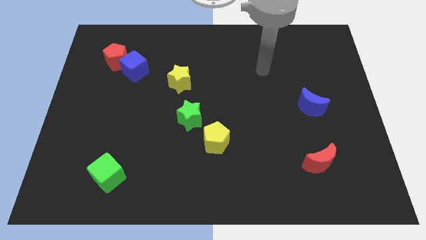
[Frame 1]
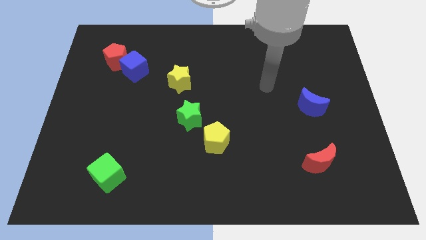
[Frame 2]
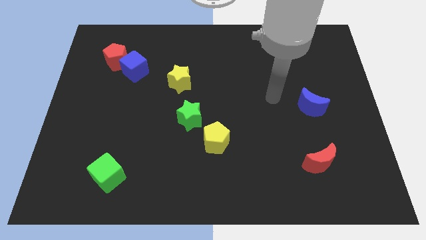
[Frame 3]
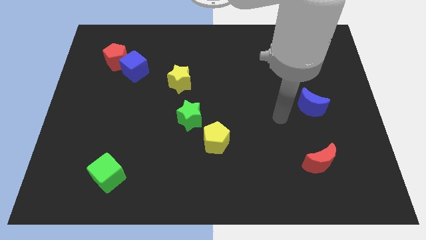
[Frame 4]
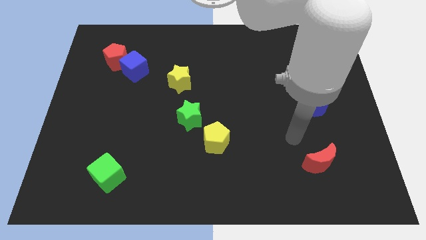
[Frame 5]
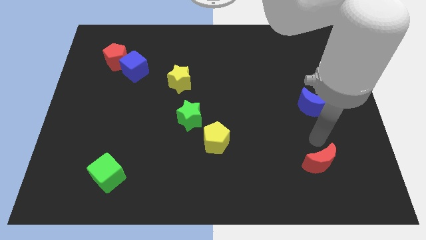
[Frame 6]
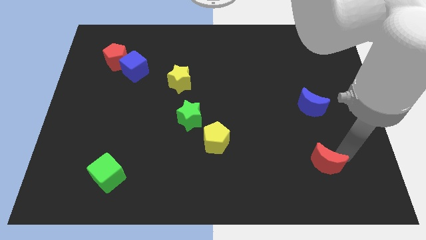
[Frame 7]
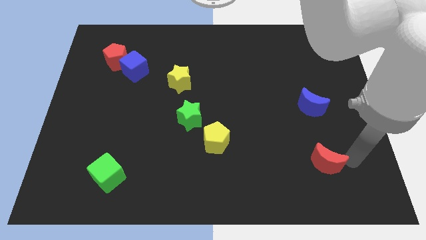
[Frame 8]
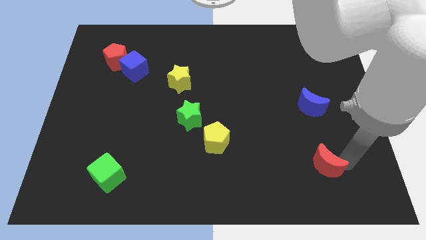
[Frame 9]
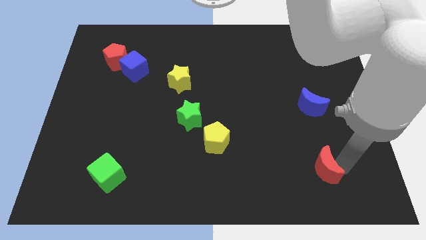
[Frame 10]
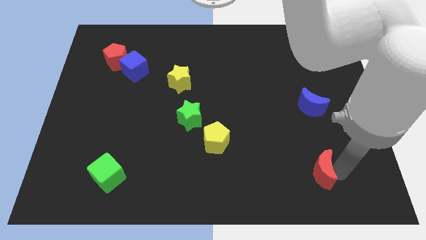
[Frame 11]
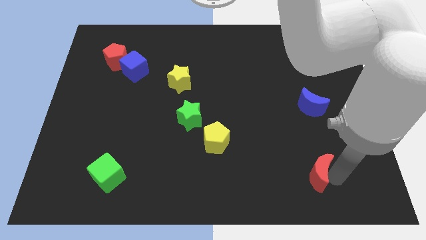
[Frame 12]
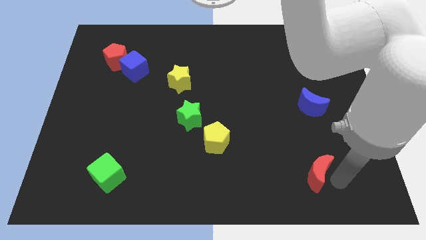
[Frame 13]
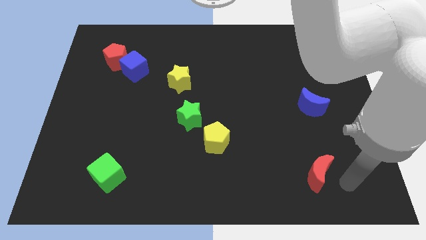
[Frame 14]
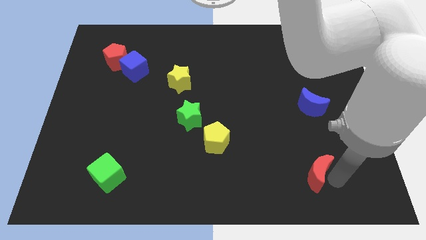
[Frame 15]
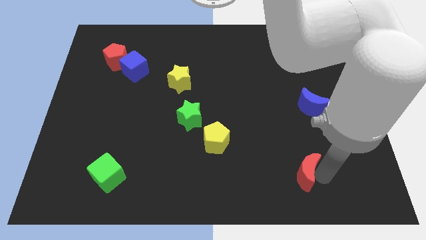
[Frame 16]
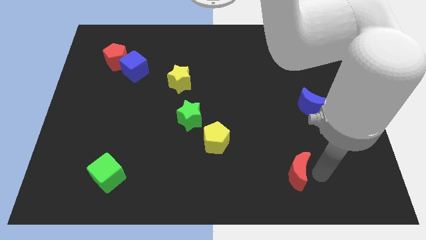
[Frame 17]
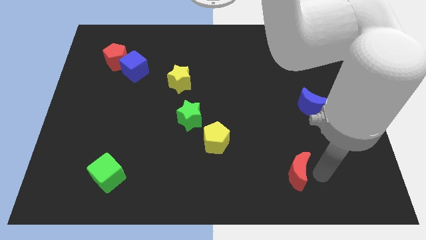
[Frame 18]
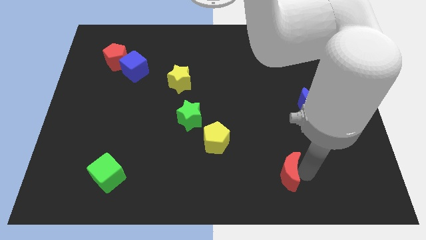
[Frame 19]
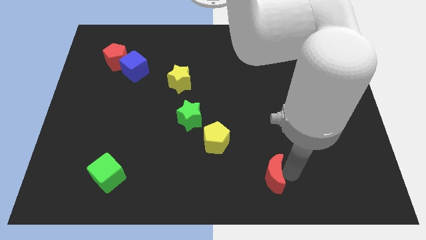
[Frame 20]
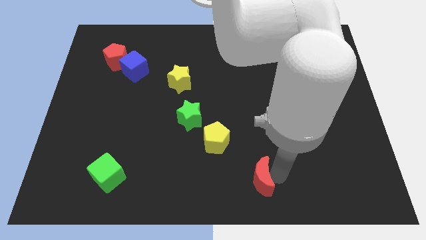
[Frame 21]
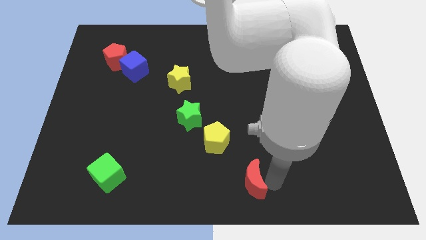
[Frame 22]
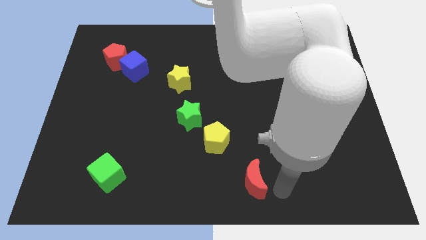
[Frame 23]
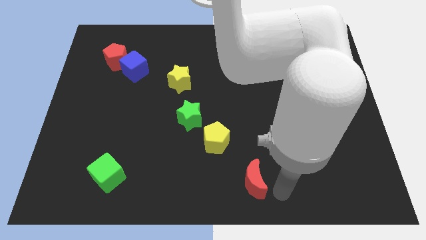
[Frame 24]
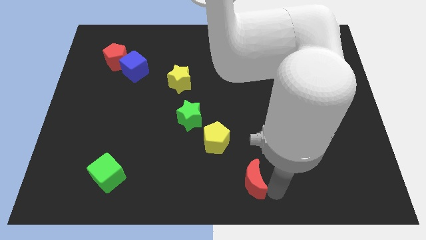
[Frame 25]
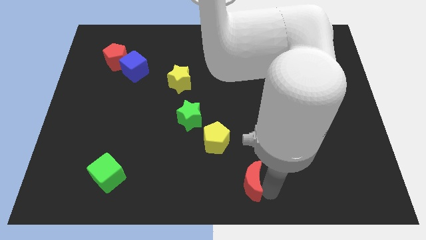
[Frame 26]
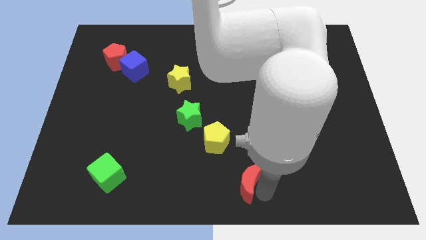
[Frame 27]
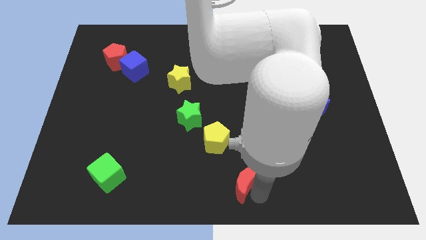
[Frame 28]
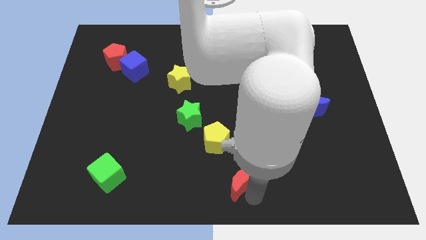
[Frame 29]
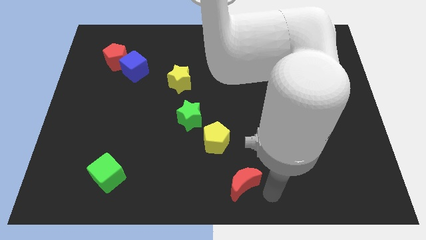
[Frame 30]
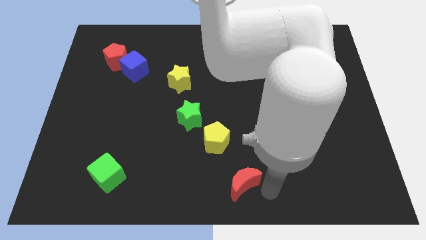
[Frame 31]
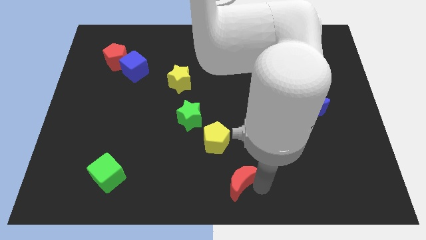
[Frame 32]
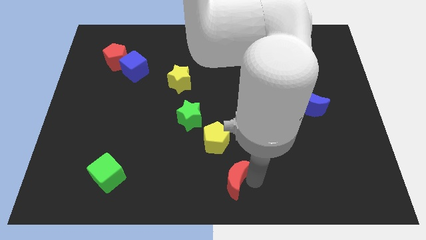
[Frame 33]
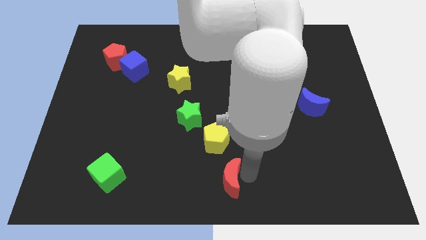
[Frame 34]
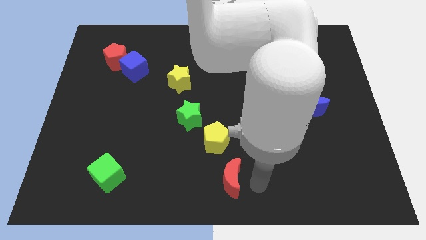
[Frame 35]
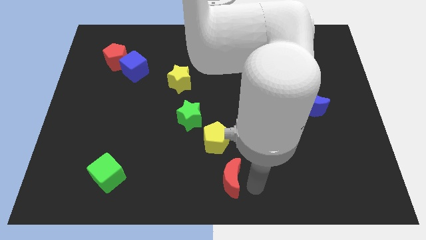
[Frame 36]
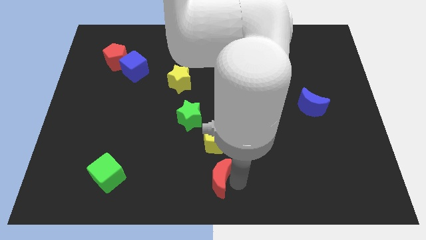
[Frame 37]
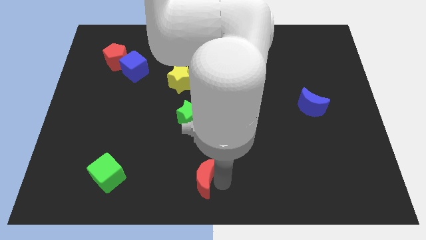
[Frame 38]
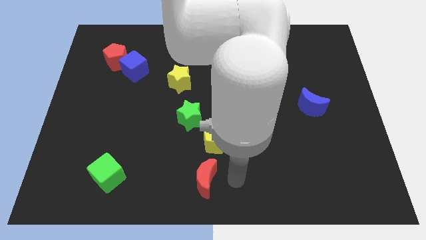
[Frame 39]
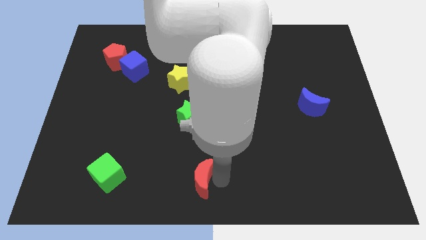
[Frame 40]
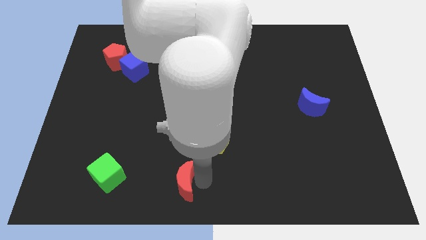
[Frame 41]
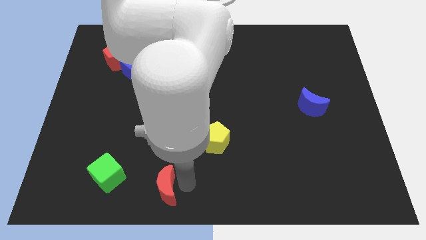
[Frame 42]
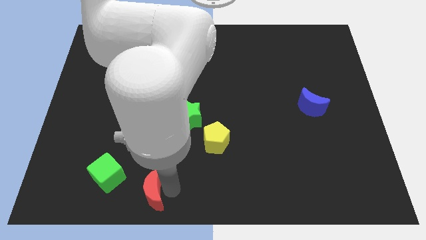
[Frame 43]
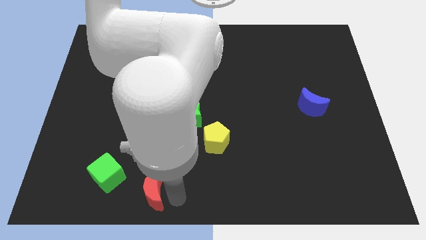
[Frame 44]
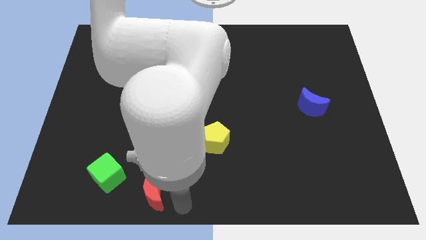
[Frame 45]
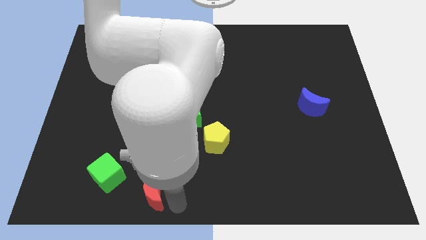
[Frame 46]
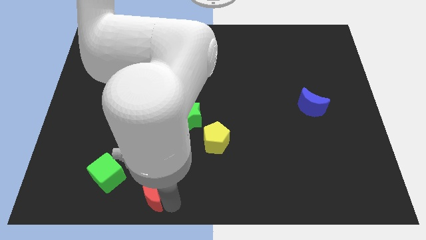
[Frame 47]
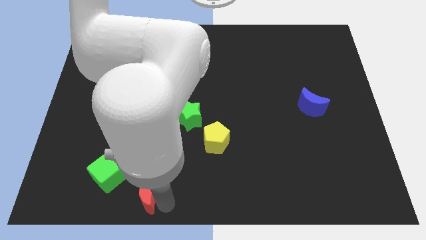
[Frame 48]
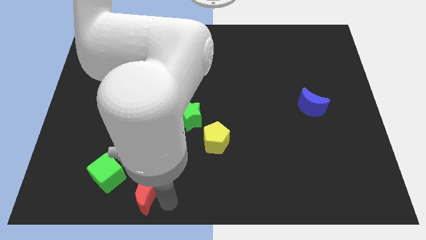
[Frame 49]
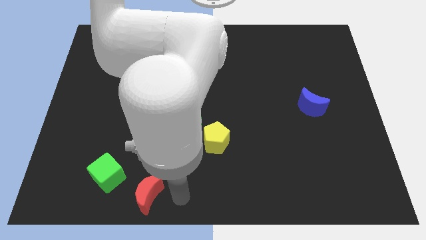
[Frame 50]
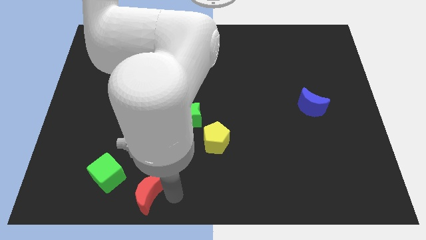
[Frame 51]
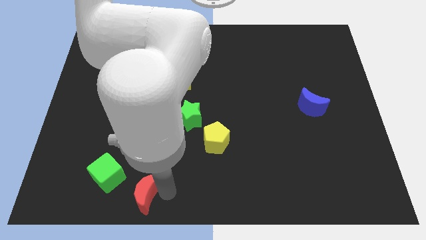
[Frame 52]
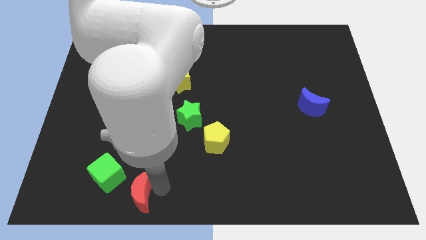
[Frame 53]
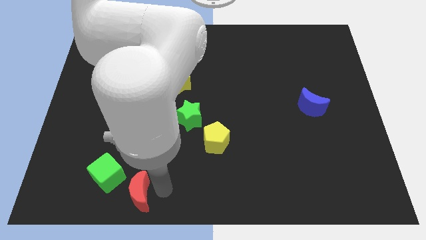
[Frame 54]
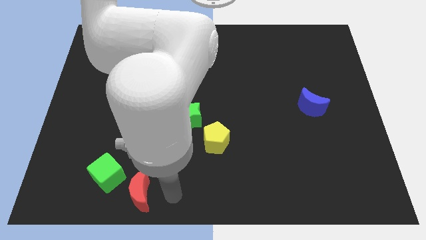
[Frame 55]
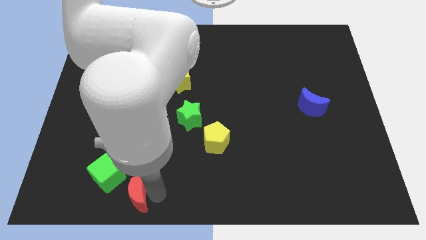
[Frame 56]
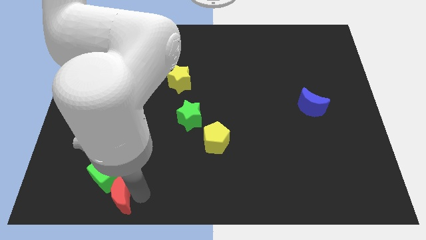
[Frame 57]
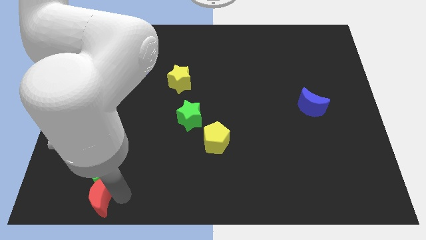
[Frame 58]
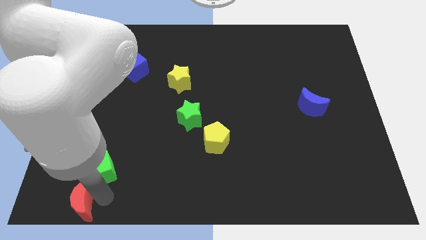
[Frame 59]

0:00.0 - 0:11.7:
move the red moon to the bottom left corner
